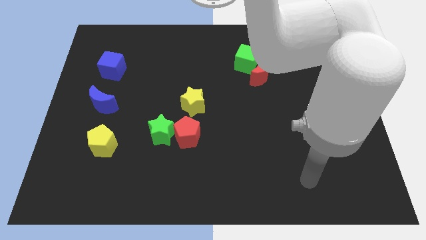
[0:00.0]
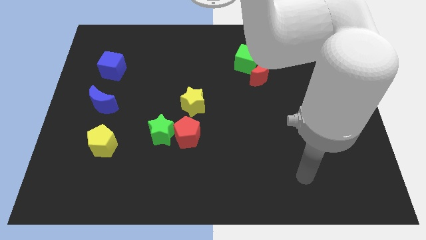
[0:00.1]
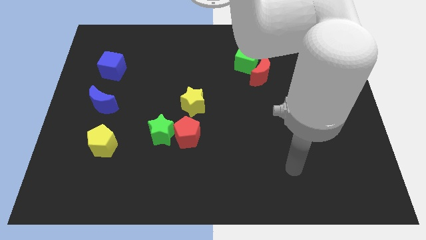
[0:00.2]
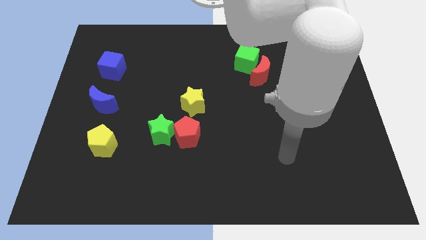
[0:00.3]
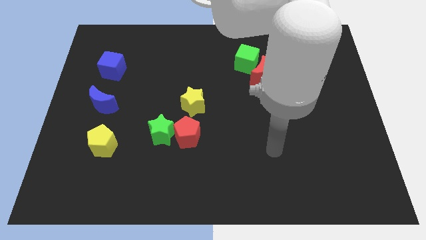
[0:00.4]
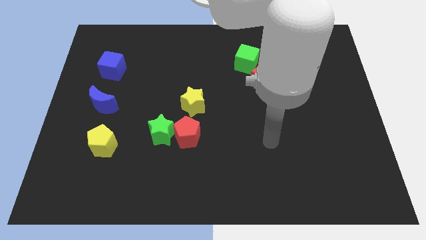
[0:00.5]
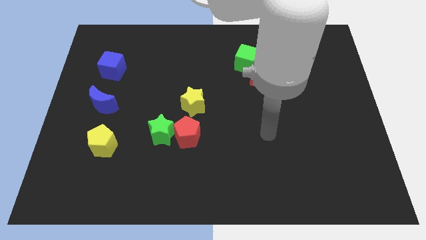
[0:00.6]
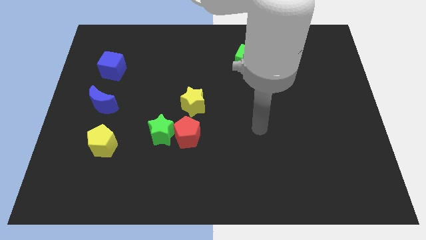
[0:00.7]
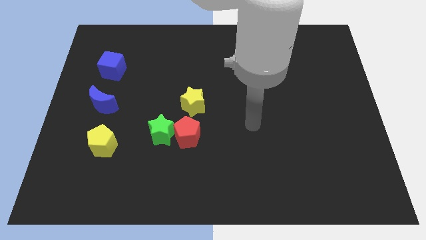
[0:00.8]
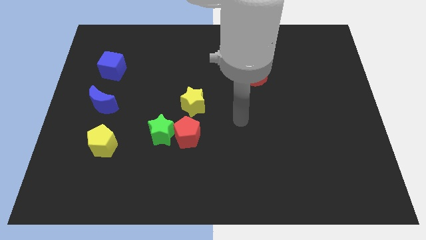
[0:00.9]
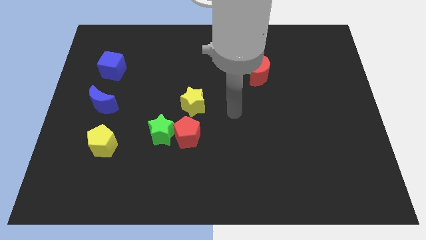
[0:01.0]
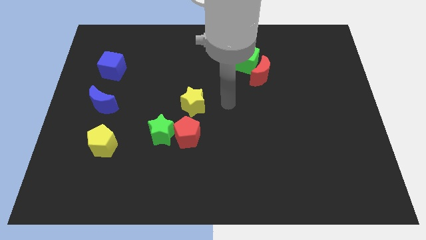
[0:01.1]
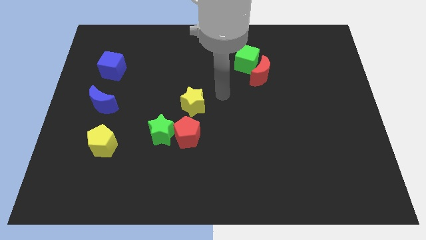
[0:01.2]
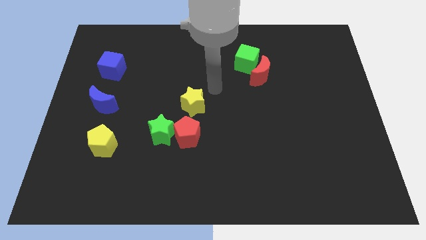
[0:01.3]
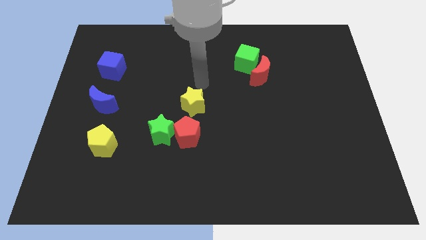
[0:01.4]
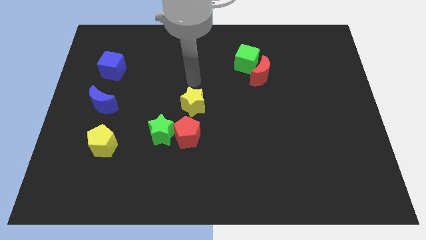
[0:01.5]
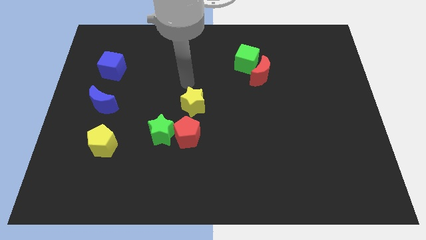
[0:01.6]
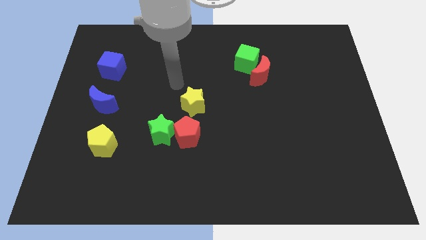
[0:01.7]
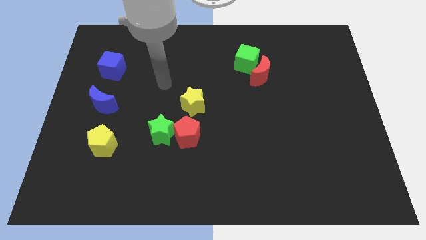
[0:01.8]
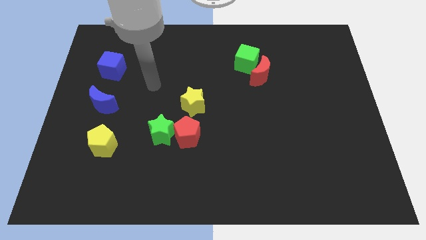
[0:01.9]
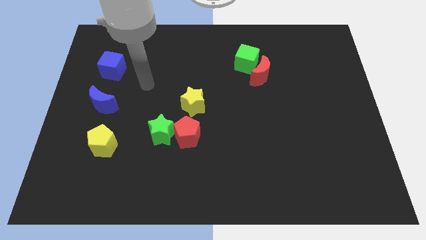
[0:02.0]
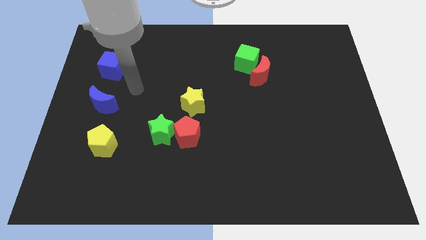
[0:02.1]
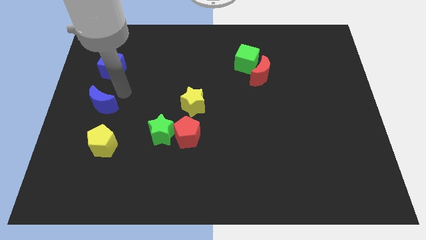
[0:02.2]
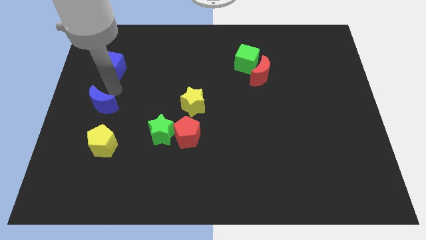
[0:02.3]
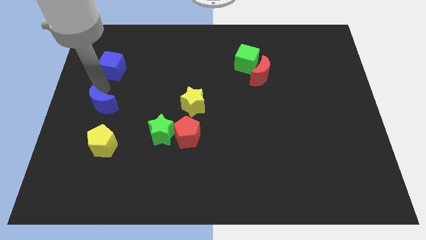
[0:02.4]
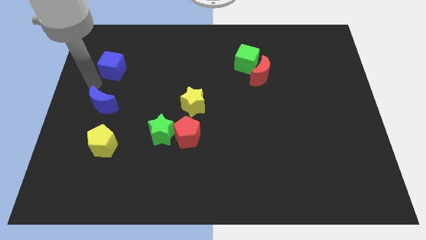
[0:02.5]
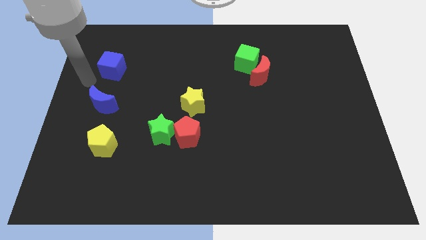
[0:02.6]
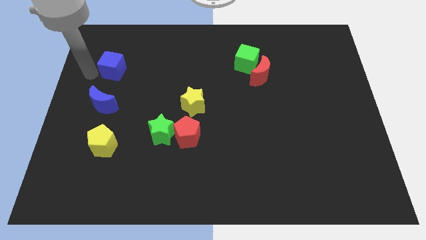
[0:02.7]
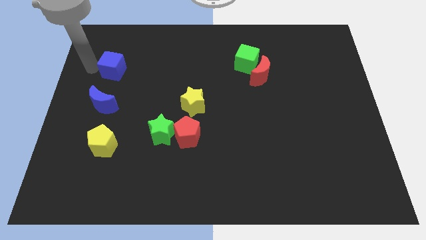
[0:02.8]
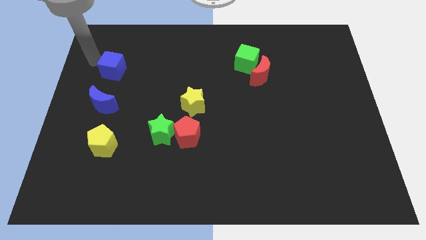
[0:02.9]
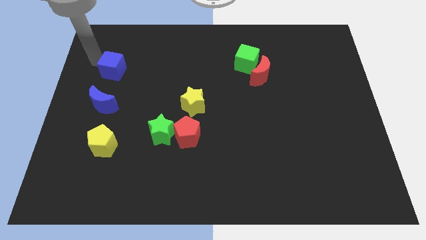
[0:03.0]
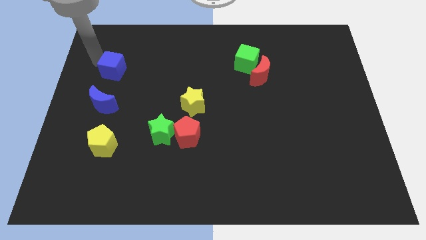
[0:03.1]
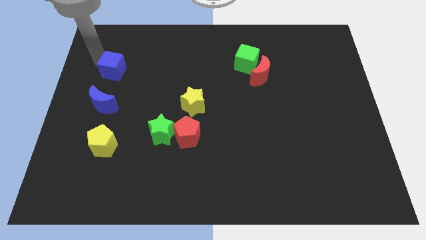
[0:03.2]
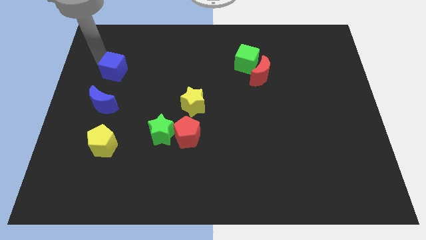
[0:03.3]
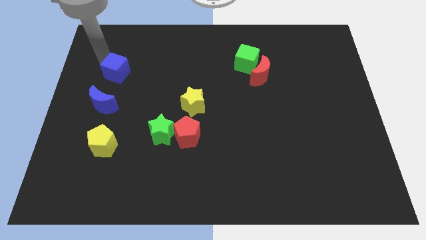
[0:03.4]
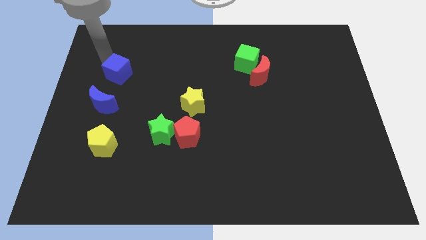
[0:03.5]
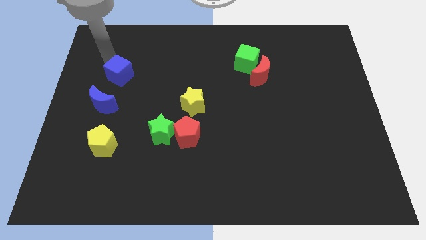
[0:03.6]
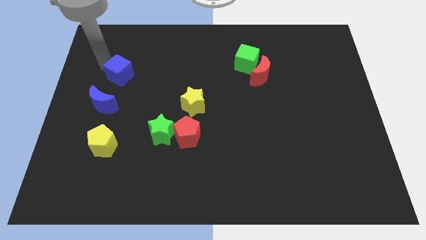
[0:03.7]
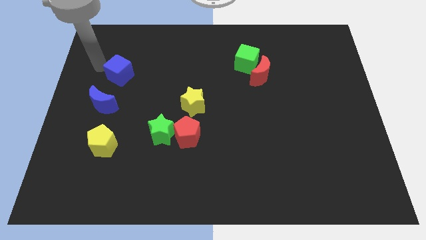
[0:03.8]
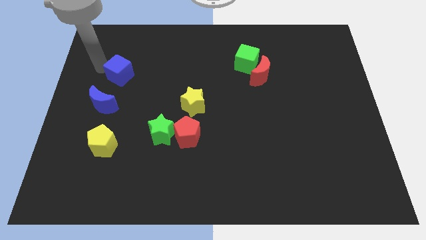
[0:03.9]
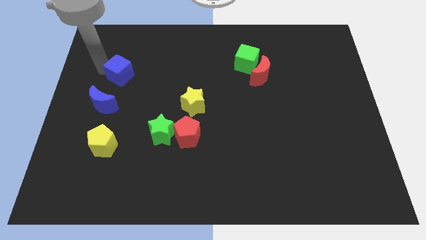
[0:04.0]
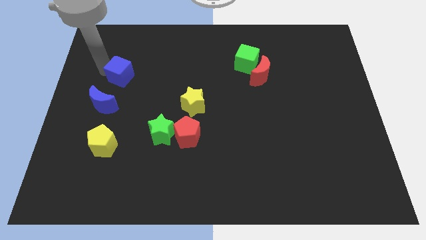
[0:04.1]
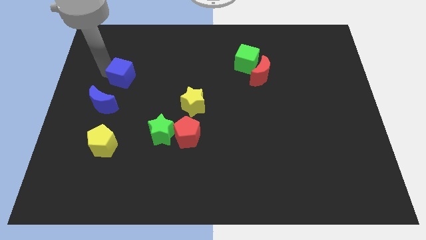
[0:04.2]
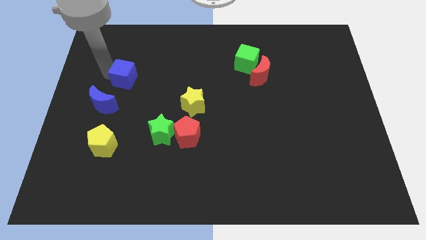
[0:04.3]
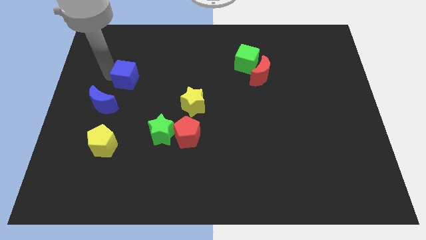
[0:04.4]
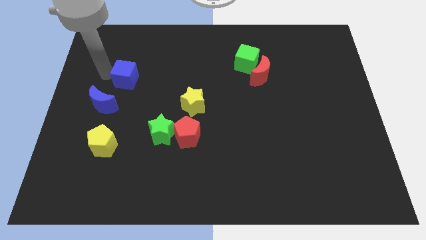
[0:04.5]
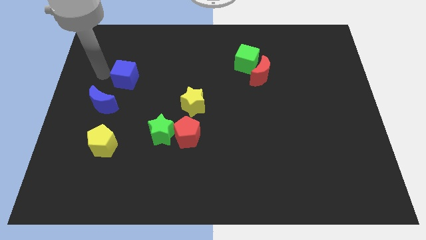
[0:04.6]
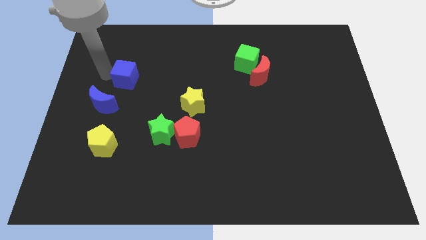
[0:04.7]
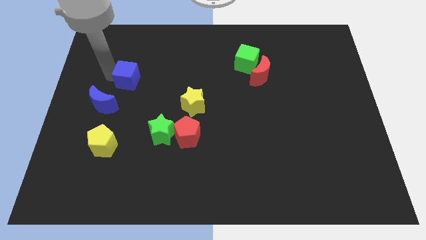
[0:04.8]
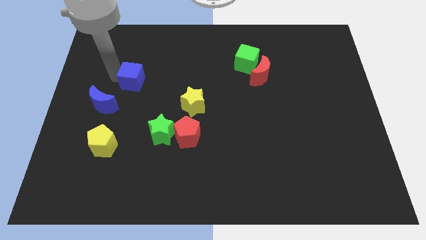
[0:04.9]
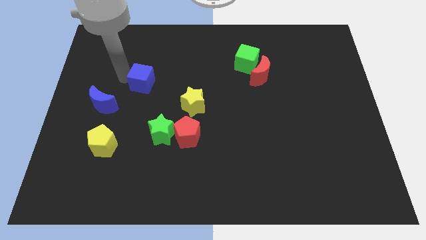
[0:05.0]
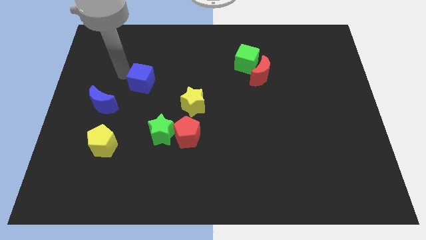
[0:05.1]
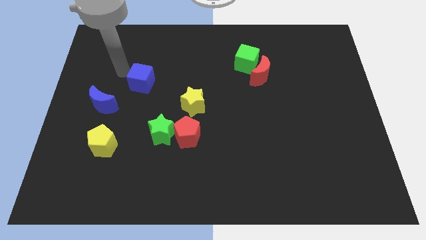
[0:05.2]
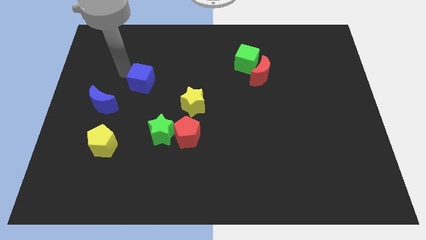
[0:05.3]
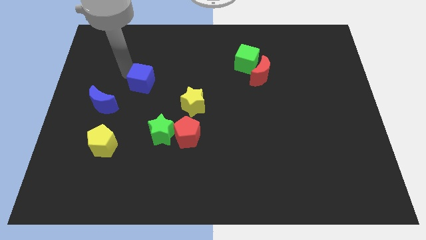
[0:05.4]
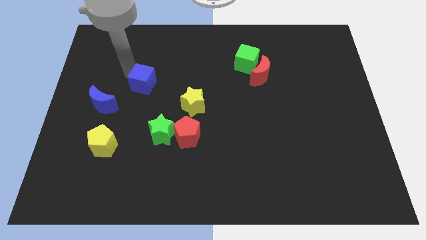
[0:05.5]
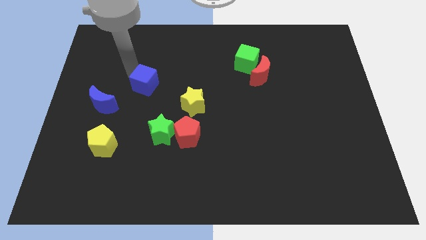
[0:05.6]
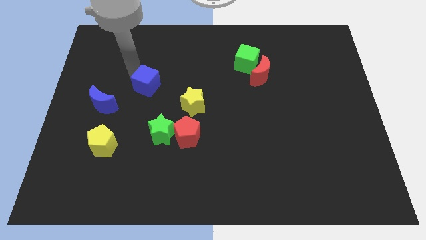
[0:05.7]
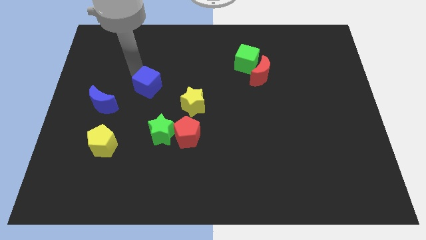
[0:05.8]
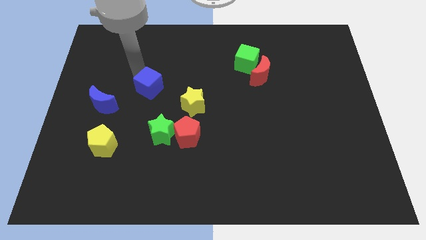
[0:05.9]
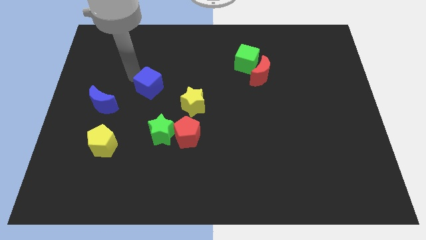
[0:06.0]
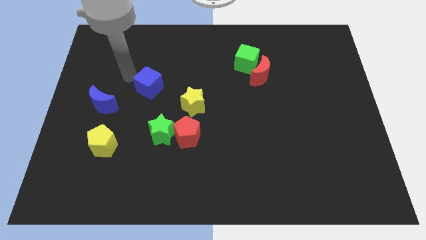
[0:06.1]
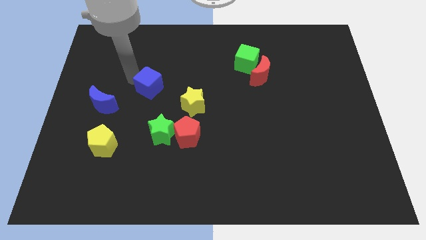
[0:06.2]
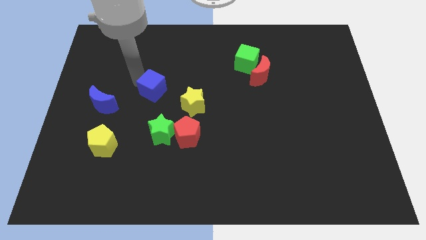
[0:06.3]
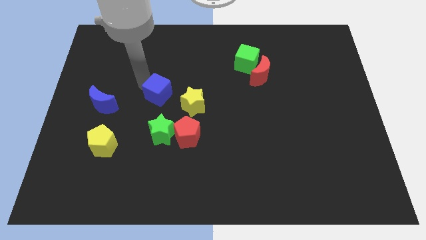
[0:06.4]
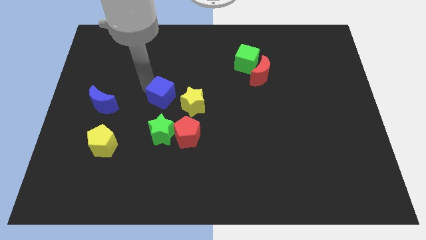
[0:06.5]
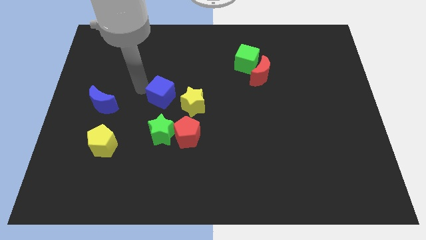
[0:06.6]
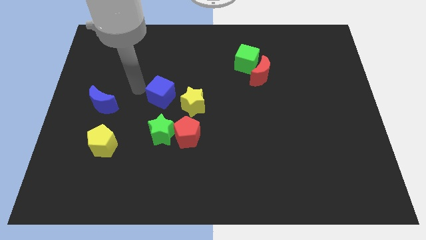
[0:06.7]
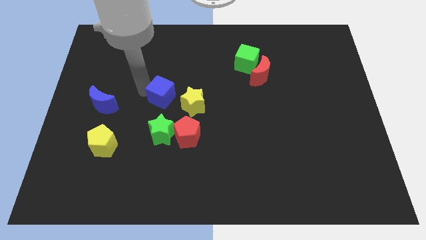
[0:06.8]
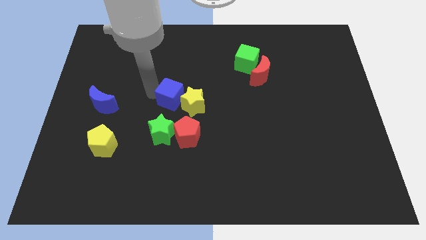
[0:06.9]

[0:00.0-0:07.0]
move the blue cube close to the yellow star
